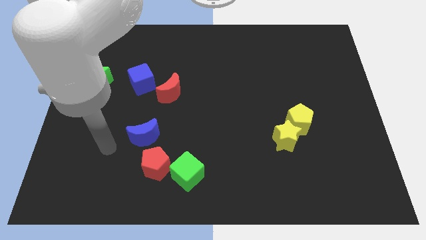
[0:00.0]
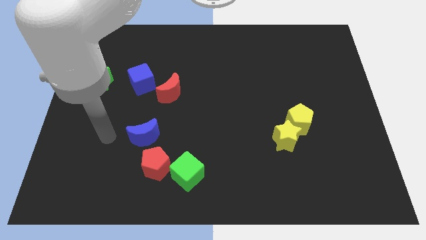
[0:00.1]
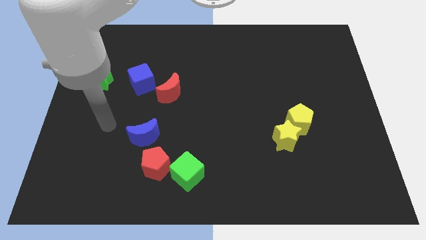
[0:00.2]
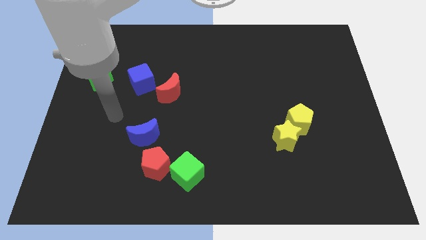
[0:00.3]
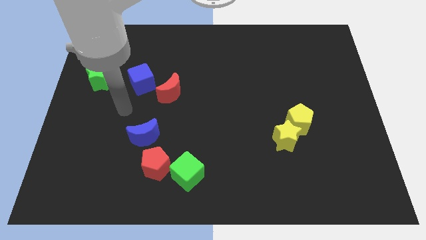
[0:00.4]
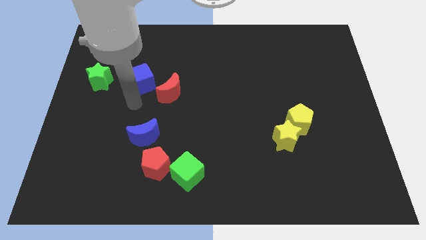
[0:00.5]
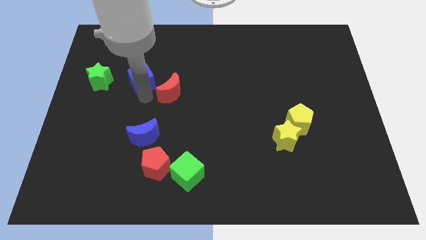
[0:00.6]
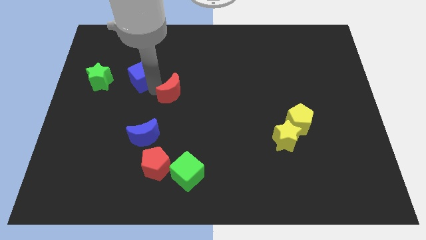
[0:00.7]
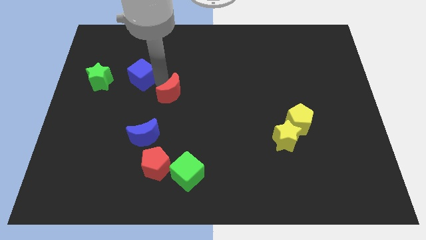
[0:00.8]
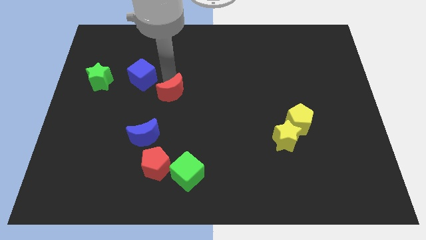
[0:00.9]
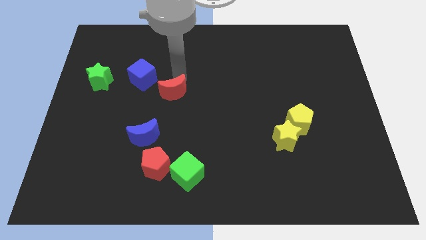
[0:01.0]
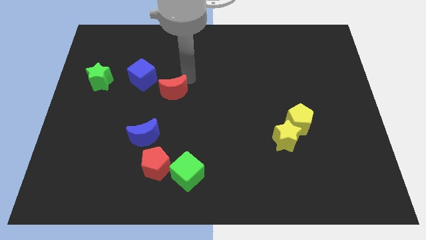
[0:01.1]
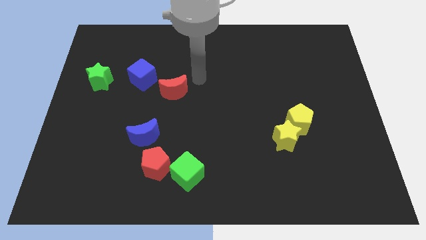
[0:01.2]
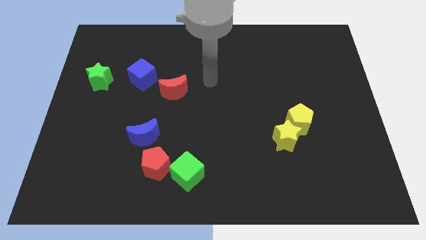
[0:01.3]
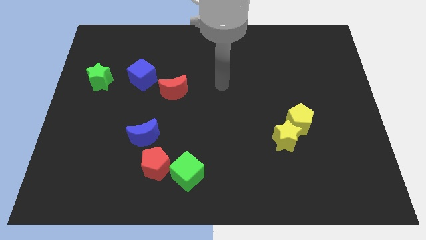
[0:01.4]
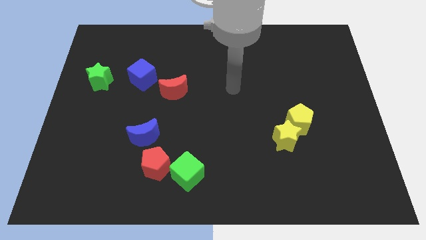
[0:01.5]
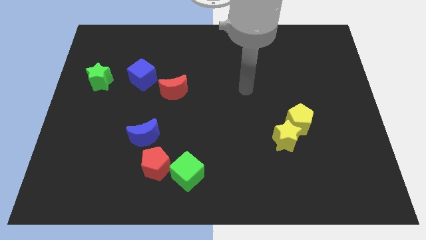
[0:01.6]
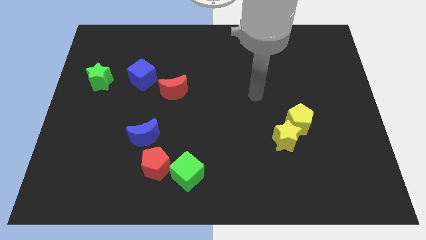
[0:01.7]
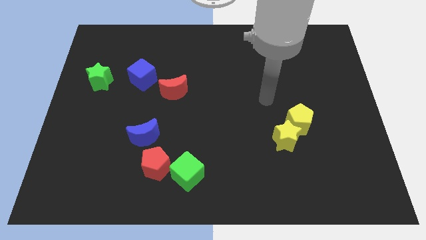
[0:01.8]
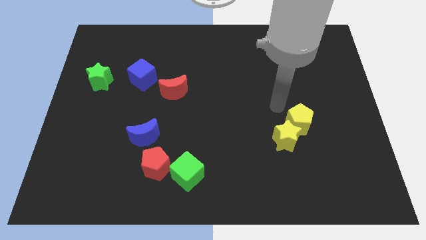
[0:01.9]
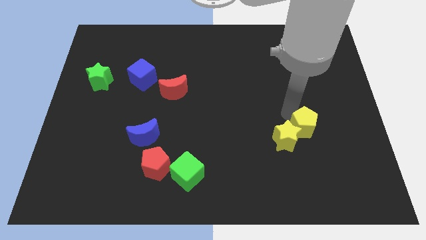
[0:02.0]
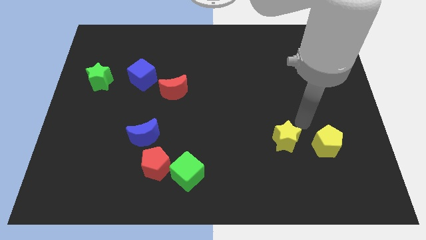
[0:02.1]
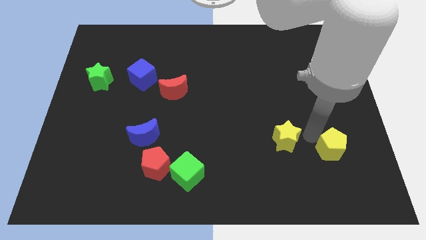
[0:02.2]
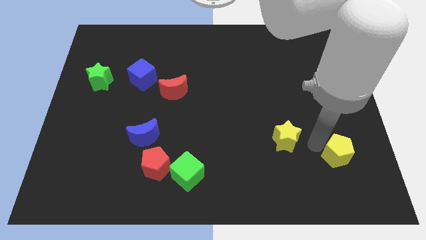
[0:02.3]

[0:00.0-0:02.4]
separate the yellow star from the yellow pentagon

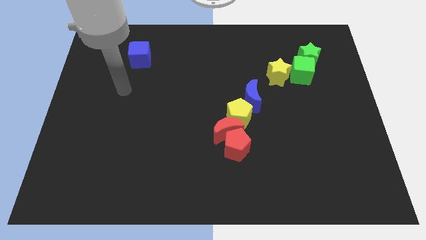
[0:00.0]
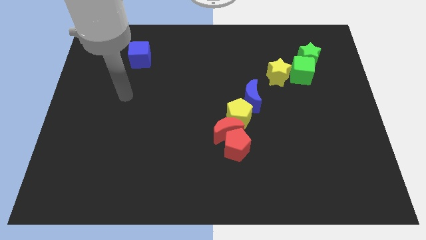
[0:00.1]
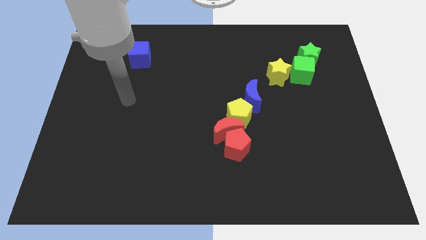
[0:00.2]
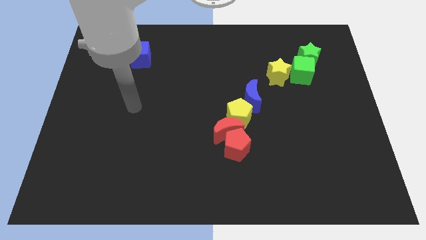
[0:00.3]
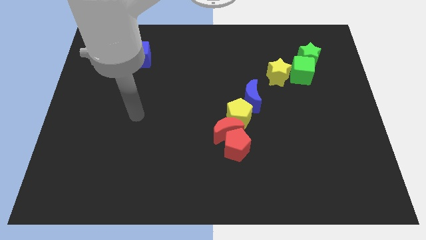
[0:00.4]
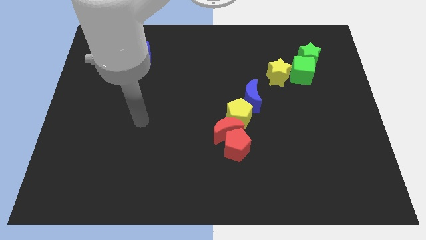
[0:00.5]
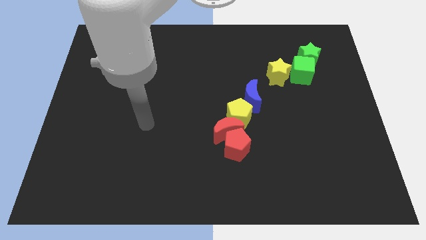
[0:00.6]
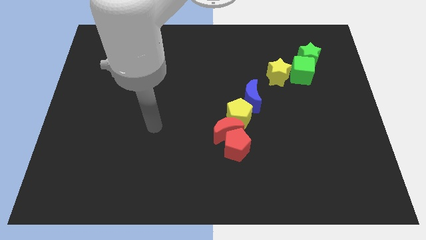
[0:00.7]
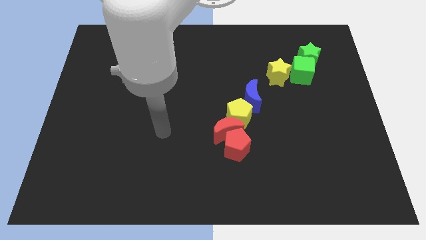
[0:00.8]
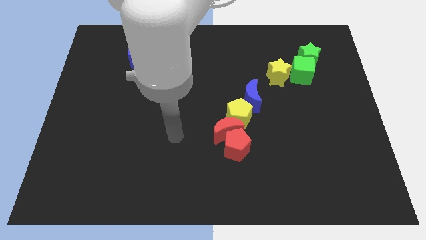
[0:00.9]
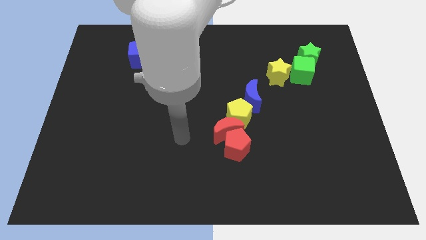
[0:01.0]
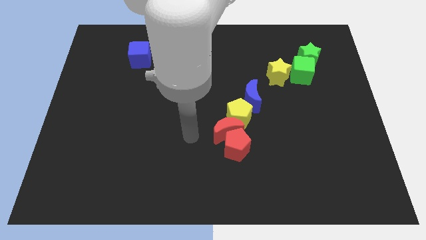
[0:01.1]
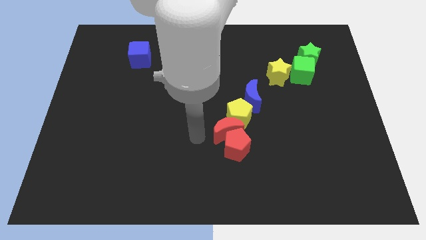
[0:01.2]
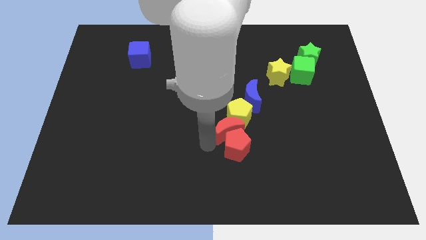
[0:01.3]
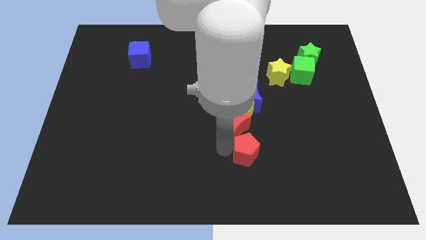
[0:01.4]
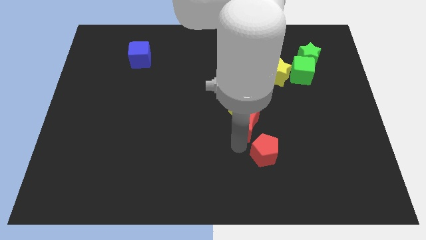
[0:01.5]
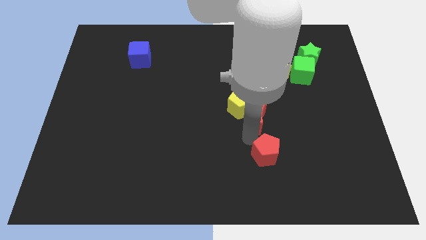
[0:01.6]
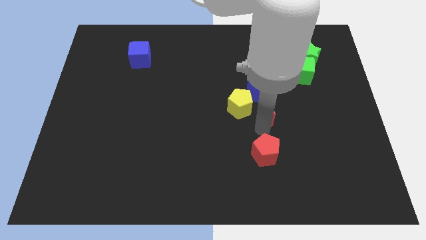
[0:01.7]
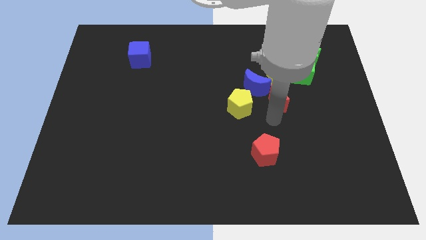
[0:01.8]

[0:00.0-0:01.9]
move the red moon away from the red pentagon and yellow pentagon

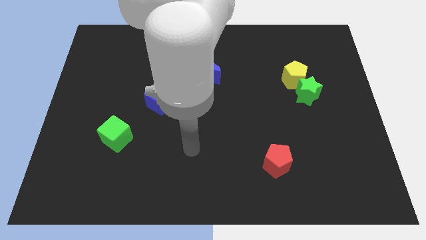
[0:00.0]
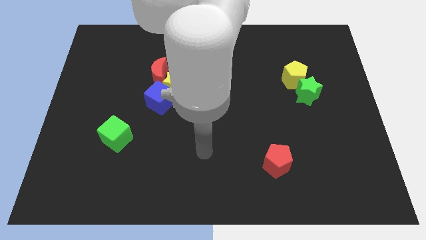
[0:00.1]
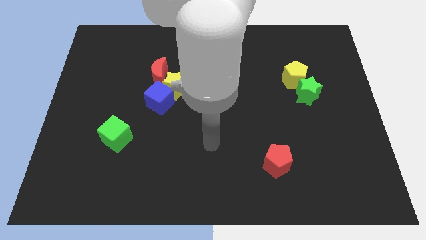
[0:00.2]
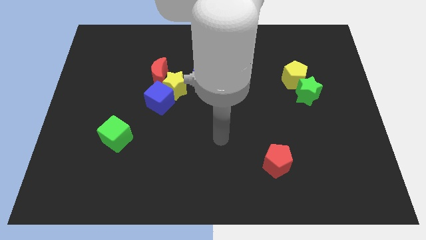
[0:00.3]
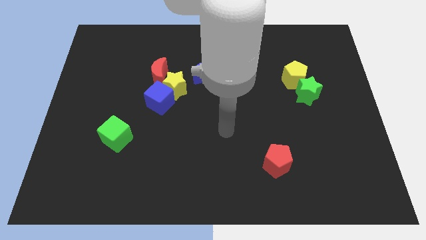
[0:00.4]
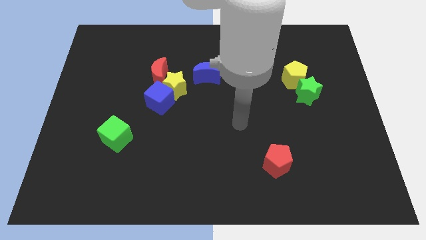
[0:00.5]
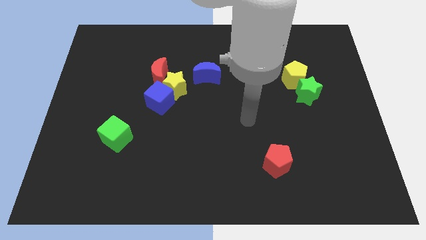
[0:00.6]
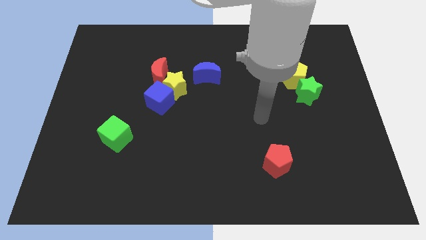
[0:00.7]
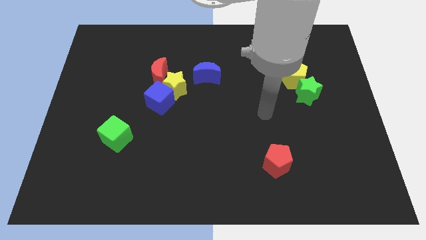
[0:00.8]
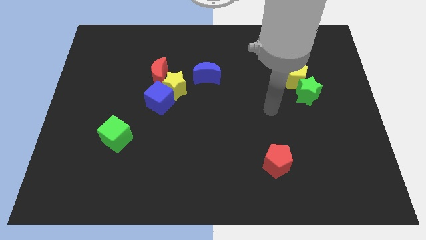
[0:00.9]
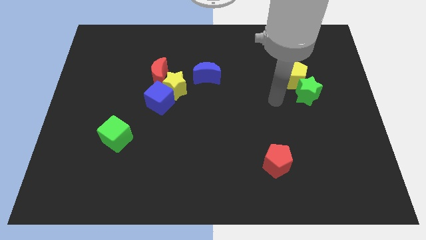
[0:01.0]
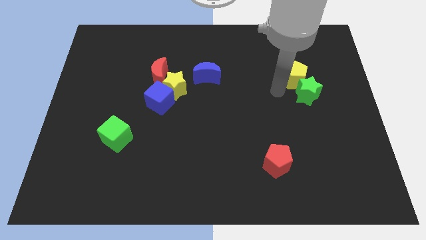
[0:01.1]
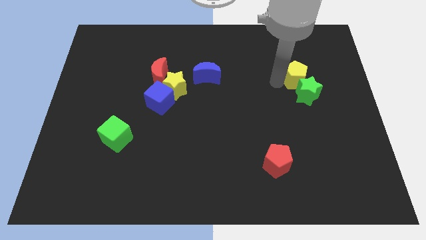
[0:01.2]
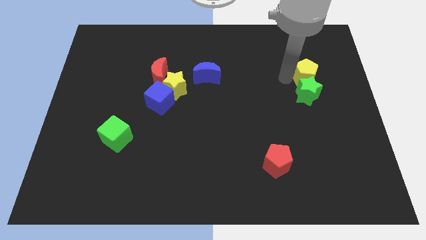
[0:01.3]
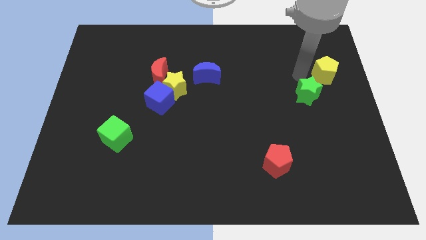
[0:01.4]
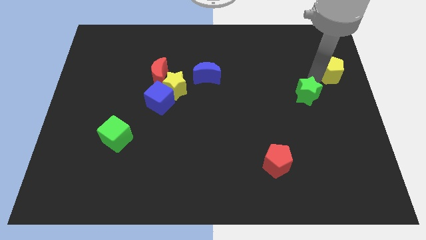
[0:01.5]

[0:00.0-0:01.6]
separate the green star from the yellow pentagon

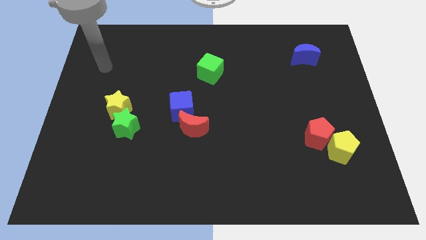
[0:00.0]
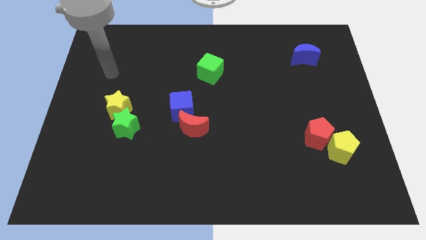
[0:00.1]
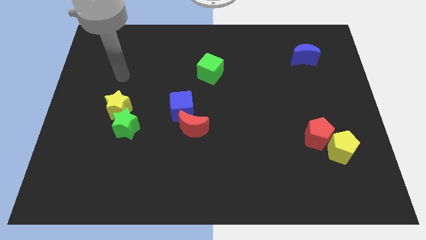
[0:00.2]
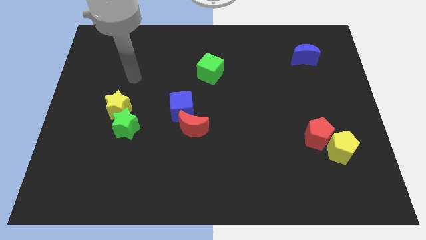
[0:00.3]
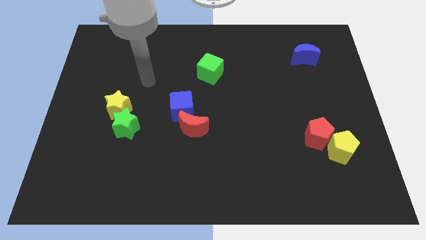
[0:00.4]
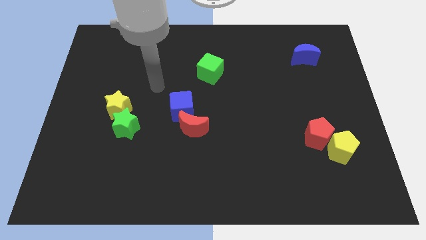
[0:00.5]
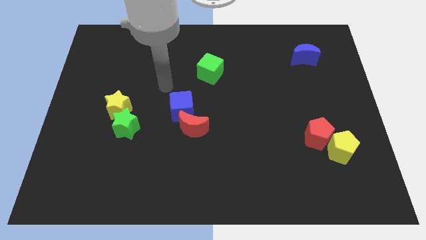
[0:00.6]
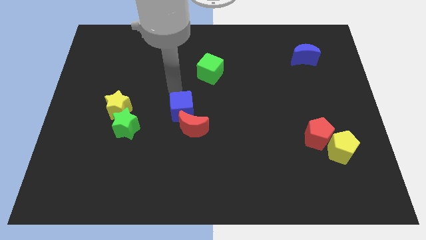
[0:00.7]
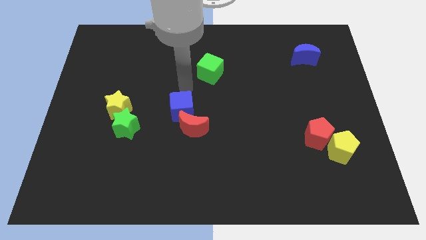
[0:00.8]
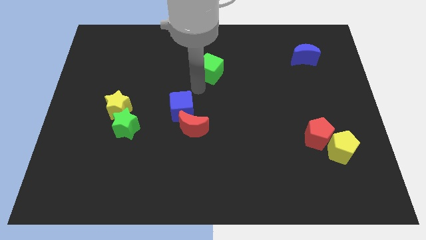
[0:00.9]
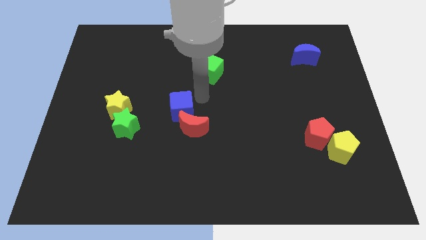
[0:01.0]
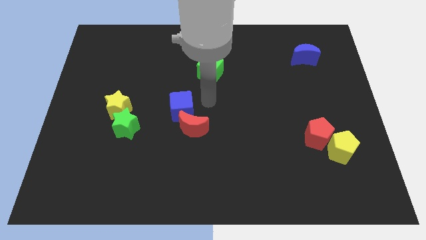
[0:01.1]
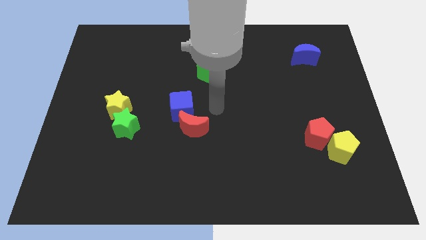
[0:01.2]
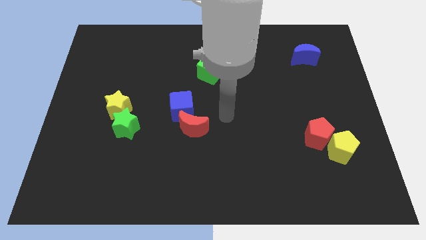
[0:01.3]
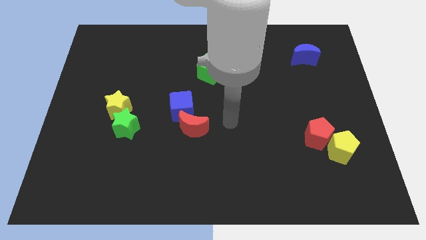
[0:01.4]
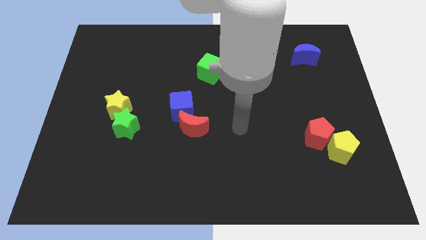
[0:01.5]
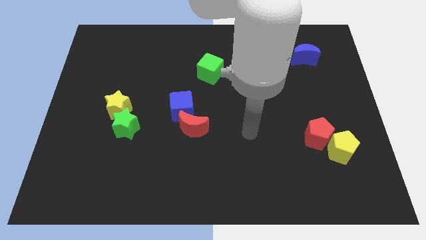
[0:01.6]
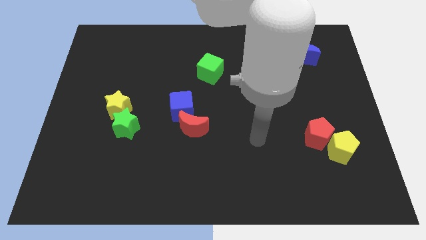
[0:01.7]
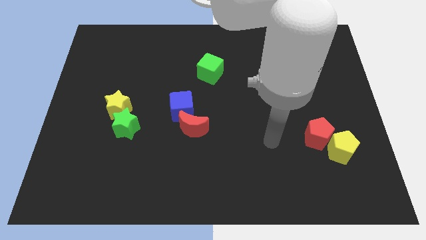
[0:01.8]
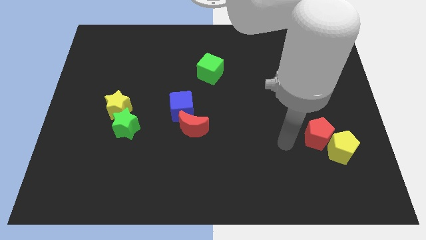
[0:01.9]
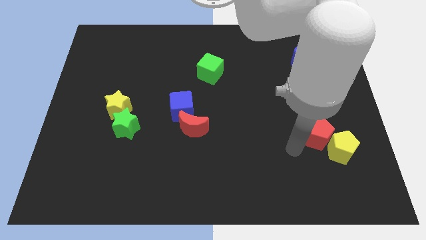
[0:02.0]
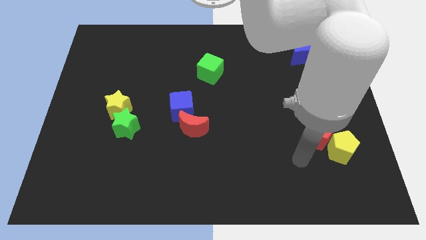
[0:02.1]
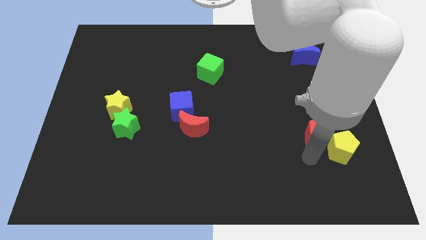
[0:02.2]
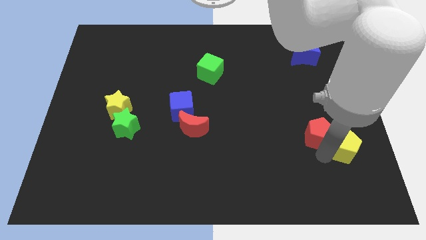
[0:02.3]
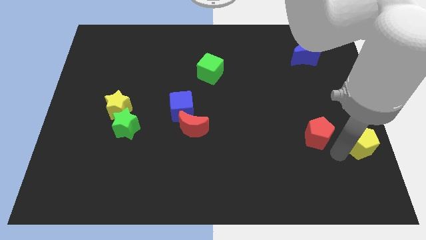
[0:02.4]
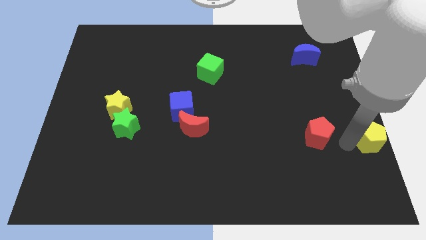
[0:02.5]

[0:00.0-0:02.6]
pull the red pentagon apart from the yellow pentagon

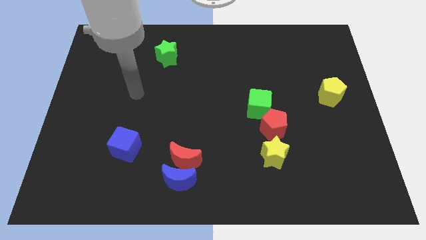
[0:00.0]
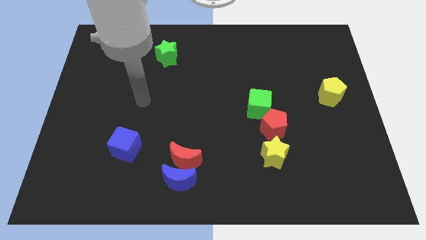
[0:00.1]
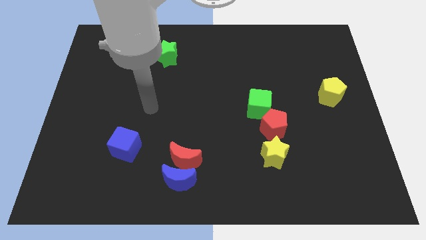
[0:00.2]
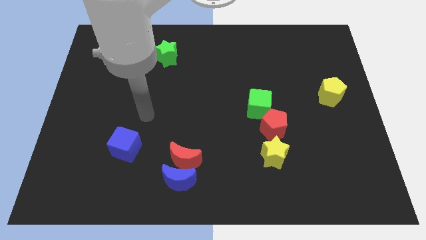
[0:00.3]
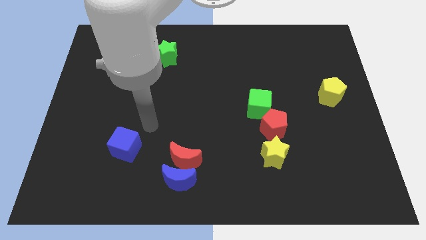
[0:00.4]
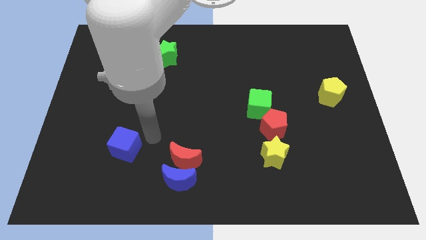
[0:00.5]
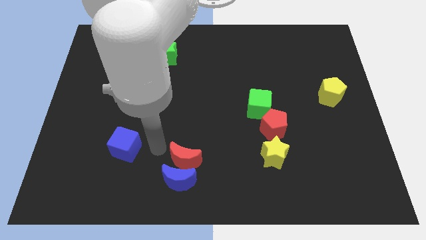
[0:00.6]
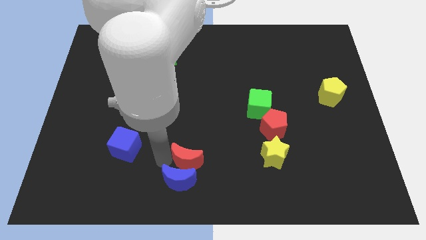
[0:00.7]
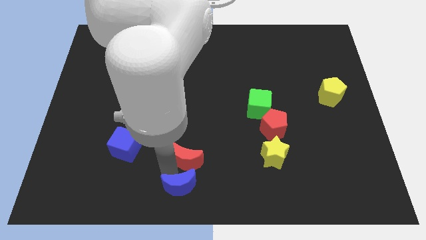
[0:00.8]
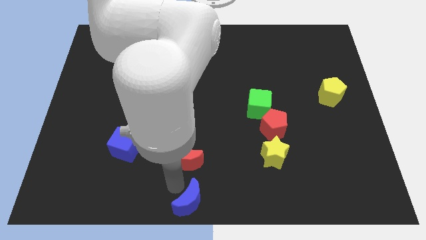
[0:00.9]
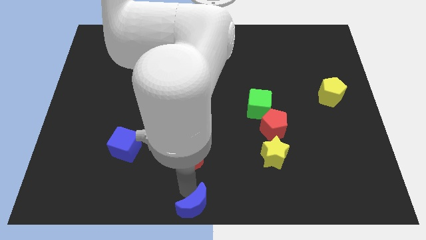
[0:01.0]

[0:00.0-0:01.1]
separate the red moon from the blue moon
